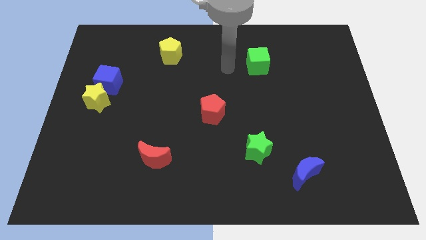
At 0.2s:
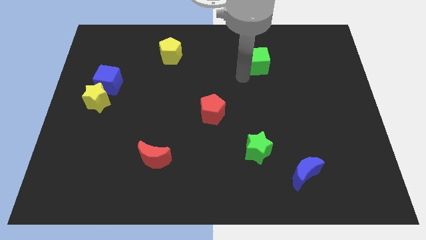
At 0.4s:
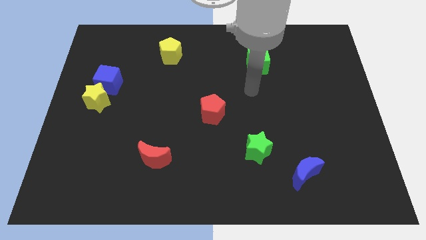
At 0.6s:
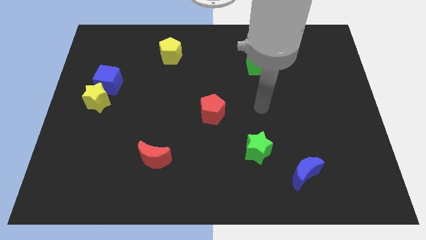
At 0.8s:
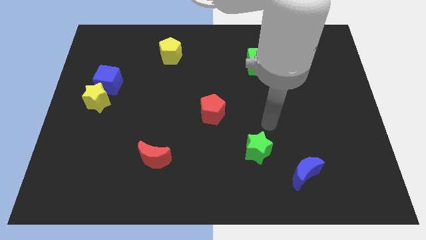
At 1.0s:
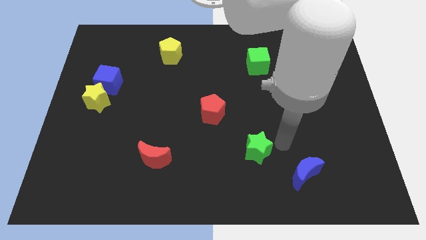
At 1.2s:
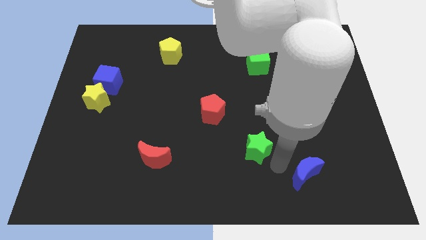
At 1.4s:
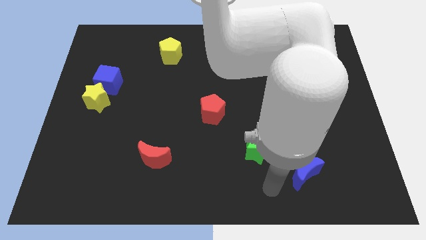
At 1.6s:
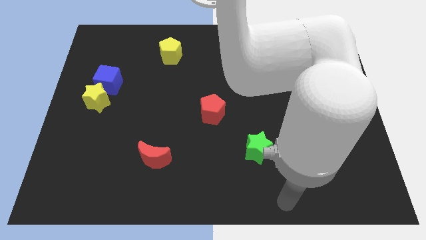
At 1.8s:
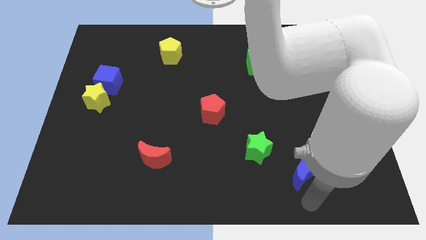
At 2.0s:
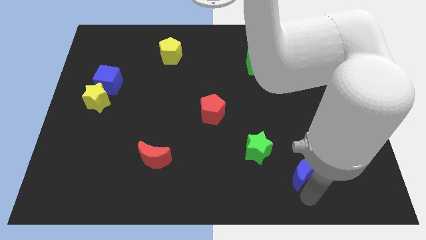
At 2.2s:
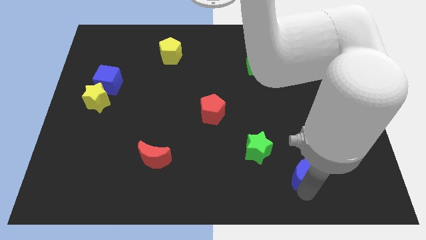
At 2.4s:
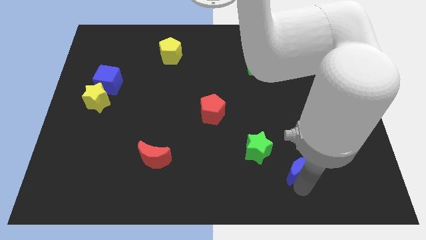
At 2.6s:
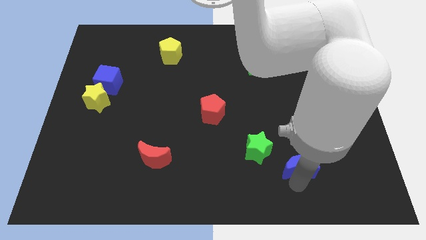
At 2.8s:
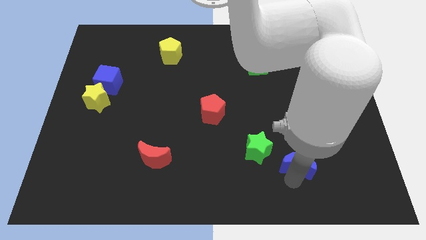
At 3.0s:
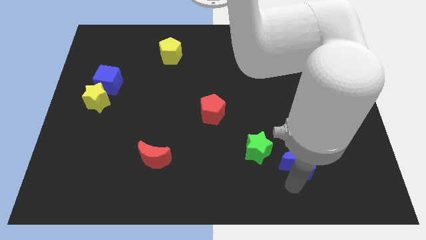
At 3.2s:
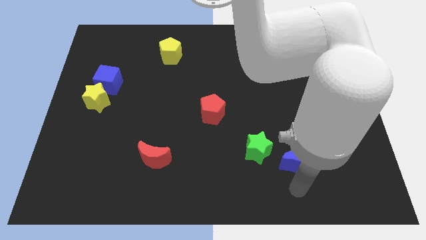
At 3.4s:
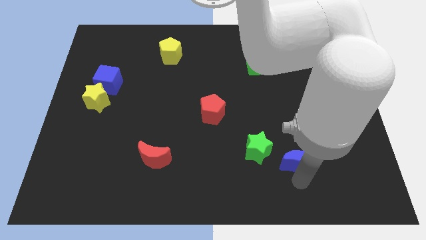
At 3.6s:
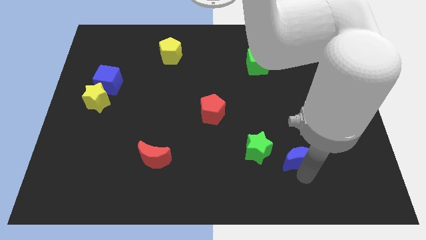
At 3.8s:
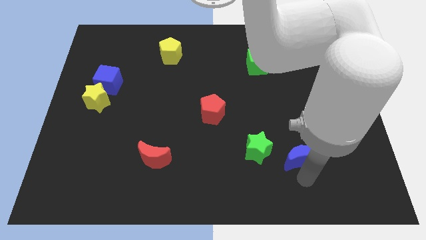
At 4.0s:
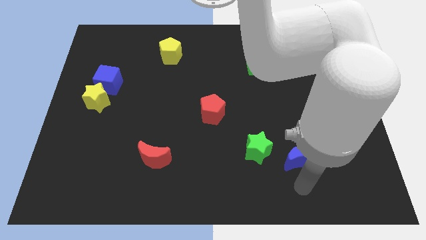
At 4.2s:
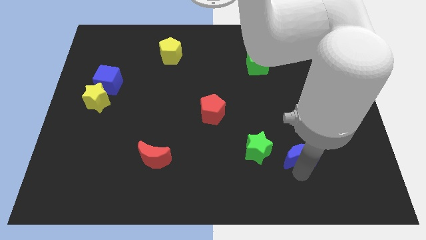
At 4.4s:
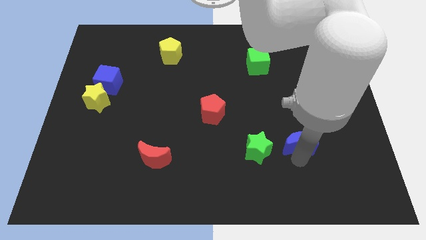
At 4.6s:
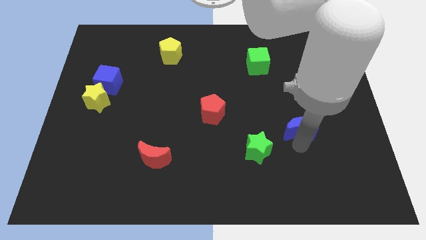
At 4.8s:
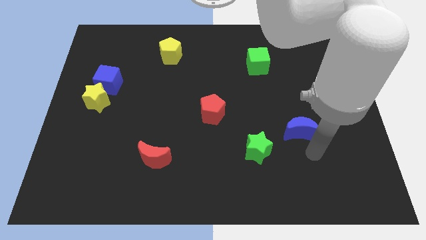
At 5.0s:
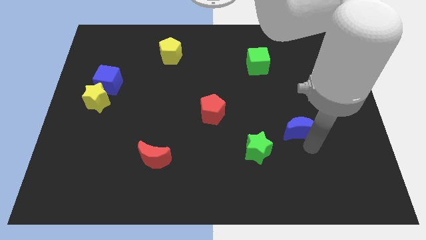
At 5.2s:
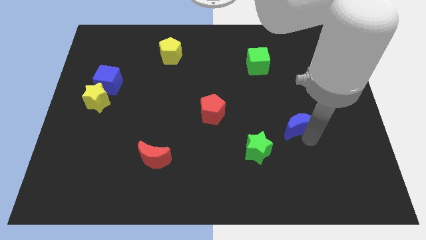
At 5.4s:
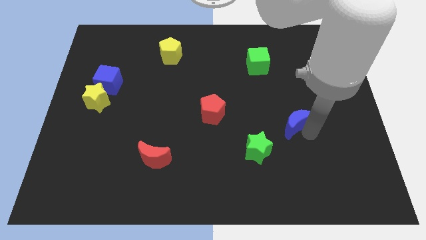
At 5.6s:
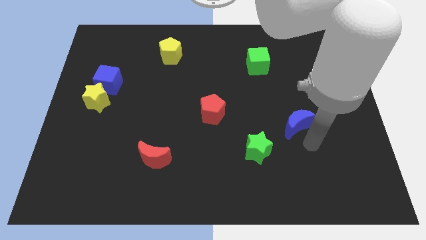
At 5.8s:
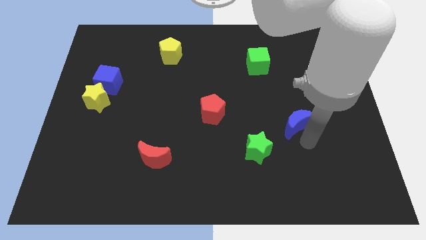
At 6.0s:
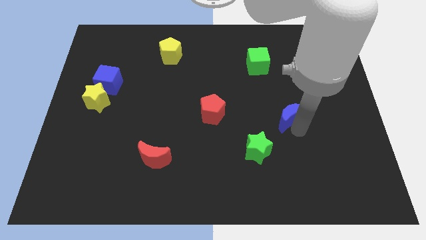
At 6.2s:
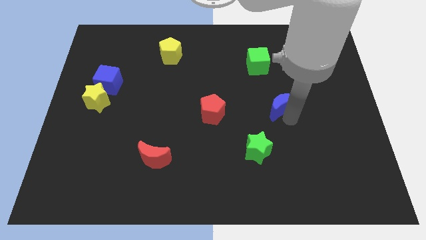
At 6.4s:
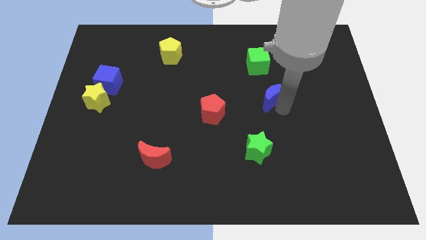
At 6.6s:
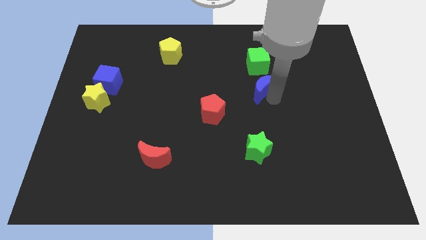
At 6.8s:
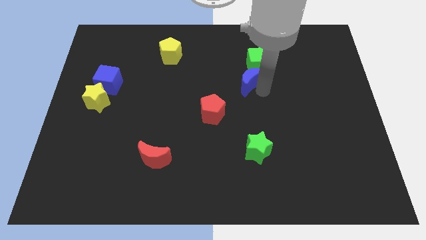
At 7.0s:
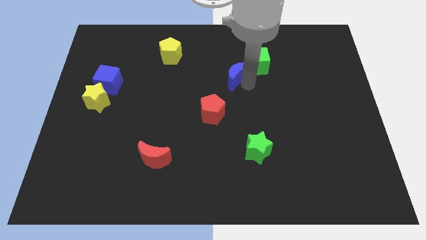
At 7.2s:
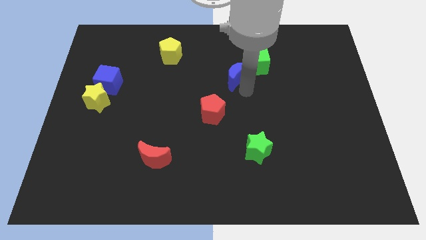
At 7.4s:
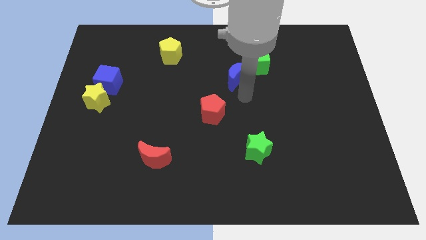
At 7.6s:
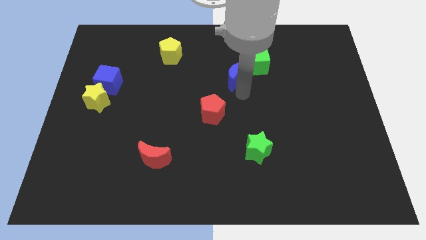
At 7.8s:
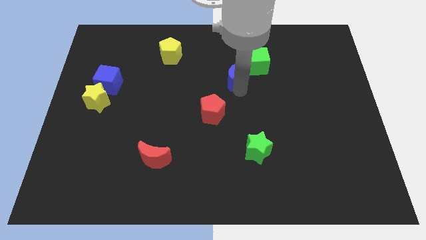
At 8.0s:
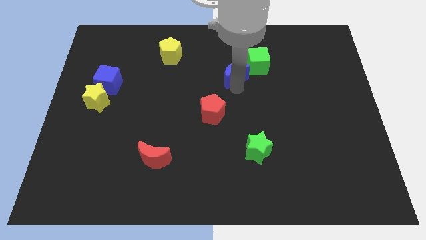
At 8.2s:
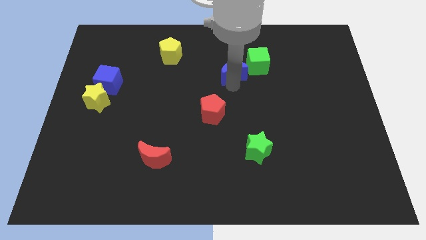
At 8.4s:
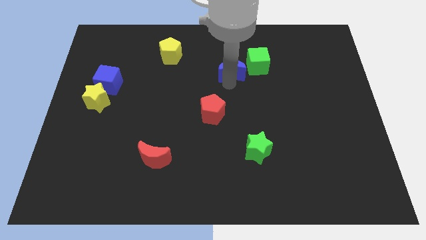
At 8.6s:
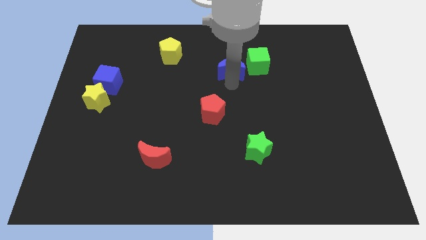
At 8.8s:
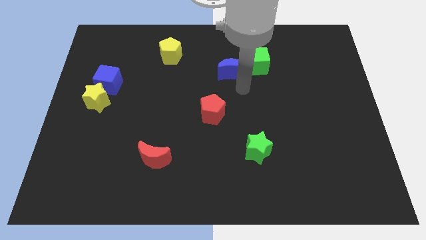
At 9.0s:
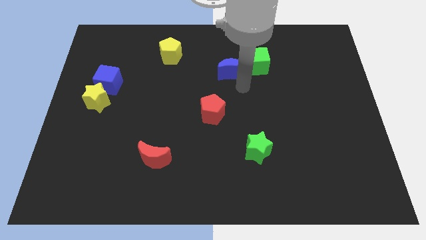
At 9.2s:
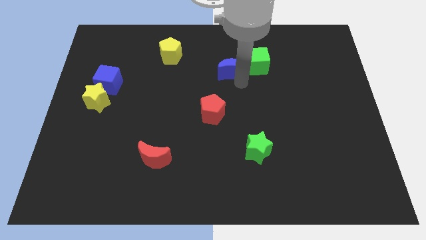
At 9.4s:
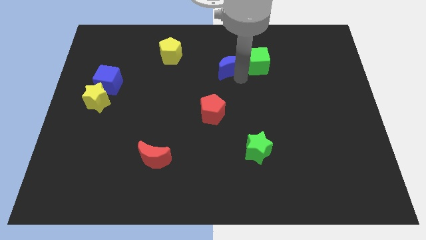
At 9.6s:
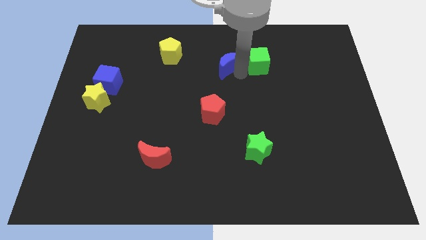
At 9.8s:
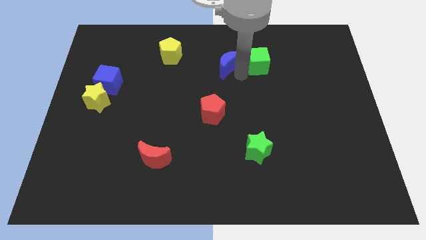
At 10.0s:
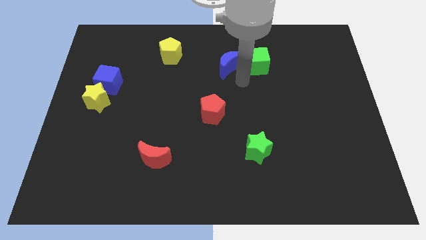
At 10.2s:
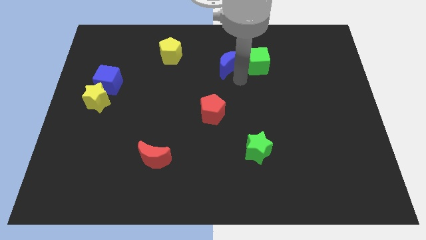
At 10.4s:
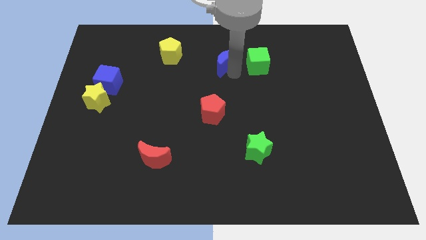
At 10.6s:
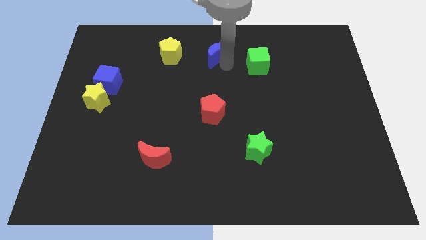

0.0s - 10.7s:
put the blue moon to the top side

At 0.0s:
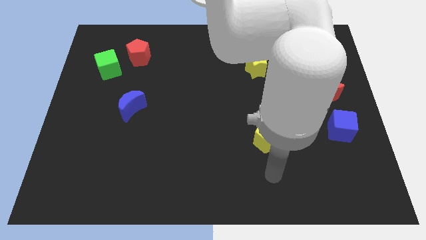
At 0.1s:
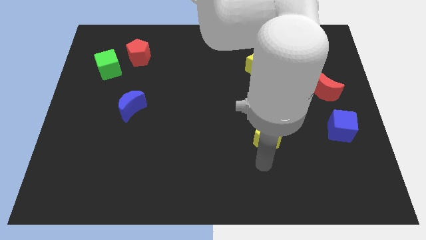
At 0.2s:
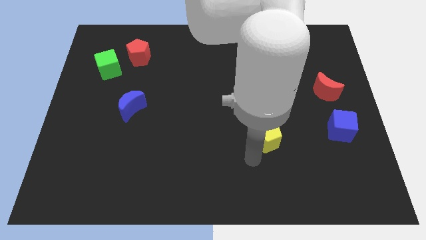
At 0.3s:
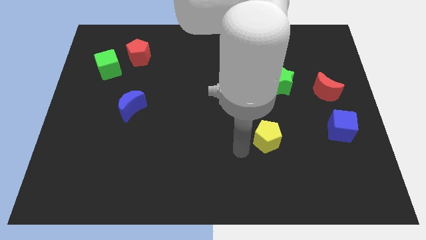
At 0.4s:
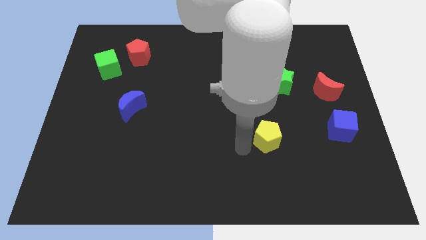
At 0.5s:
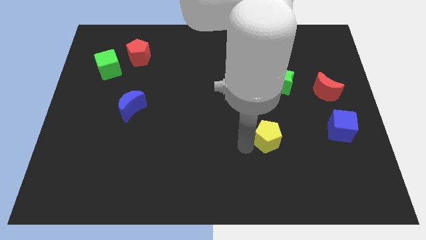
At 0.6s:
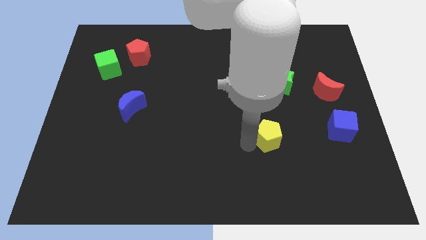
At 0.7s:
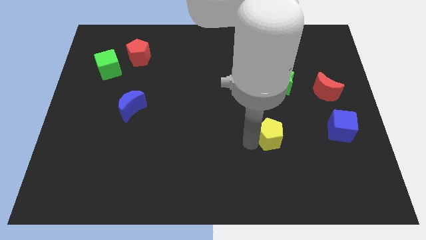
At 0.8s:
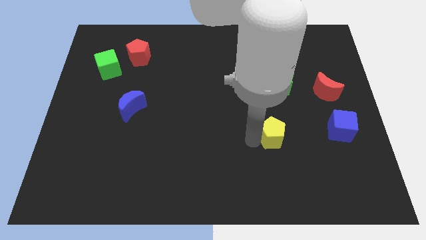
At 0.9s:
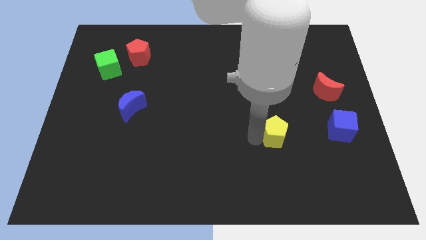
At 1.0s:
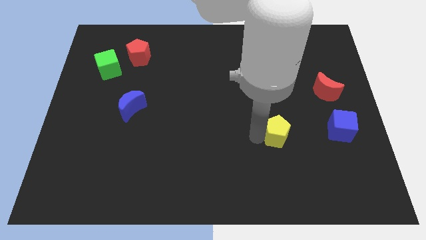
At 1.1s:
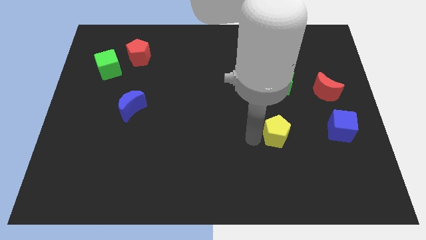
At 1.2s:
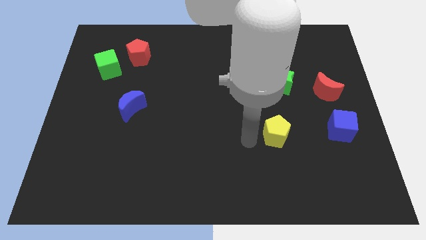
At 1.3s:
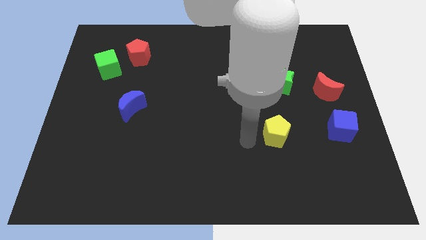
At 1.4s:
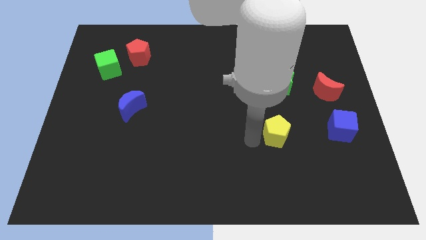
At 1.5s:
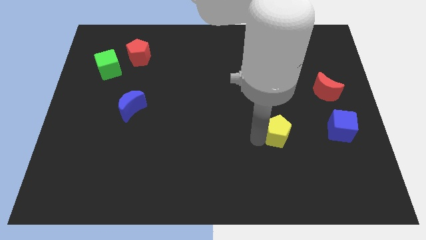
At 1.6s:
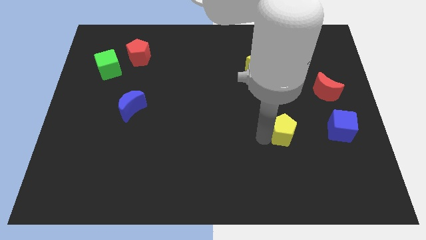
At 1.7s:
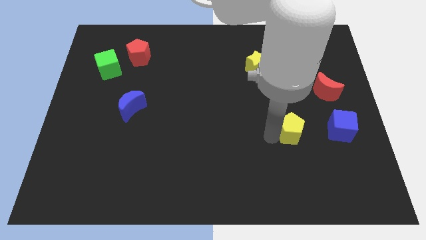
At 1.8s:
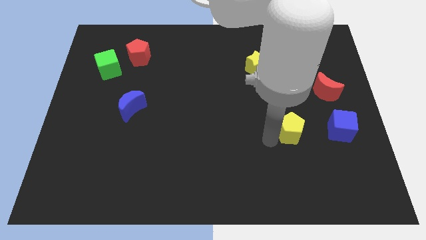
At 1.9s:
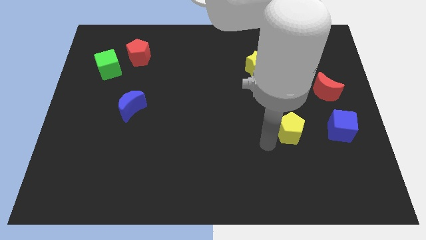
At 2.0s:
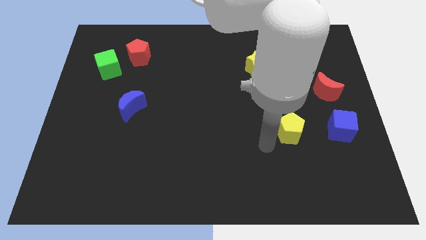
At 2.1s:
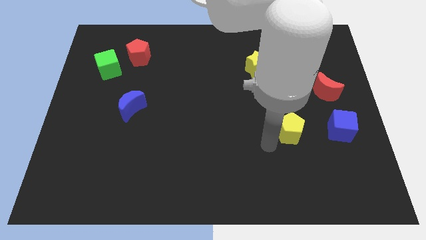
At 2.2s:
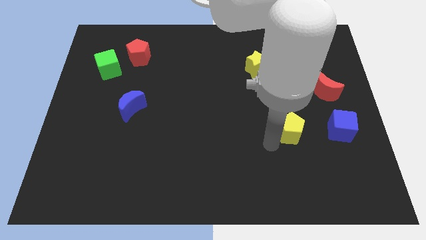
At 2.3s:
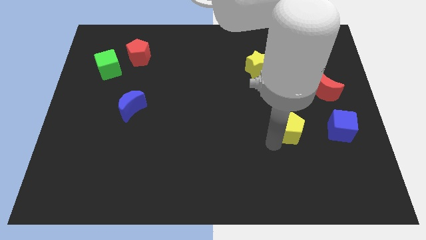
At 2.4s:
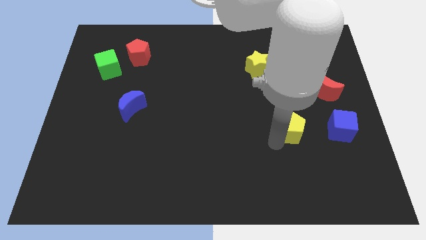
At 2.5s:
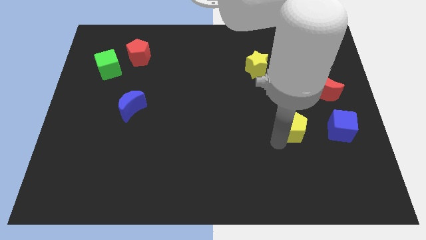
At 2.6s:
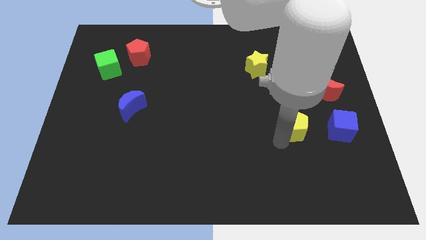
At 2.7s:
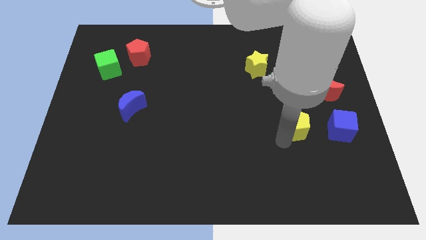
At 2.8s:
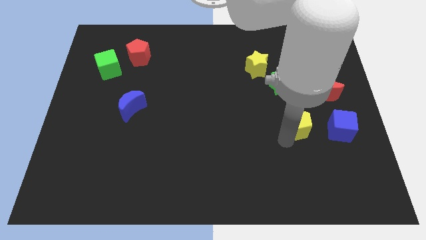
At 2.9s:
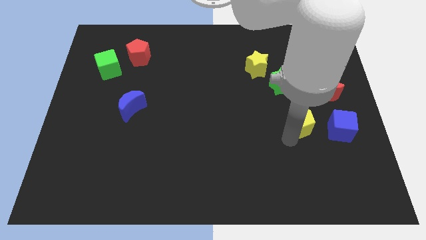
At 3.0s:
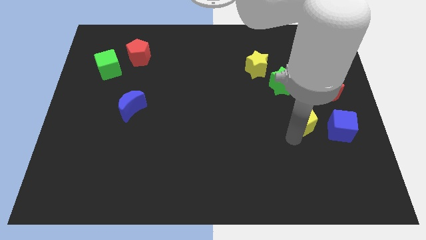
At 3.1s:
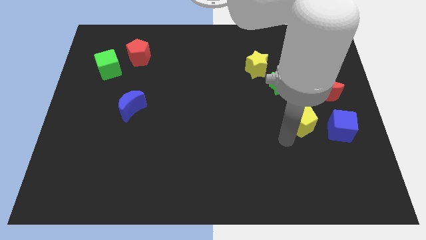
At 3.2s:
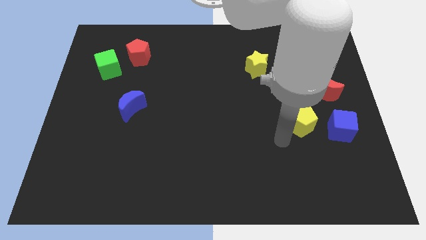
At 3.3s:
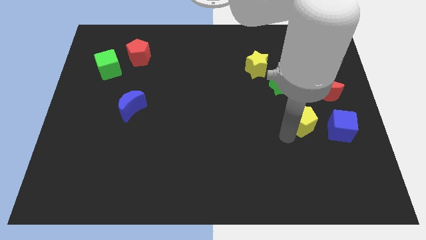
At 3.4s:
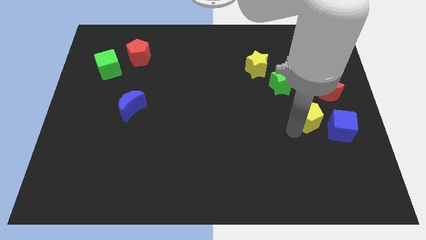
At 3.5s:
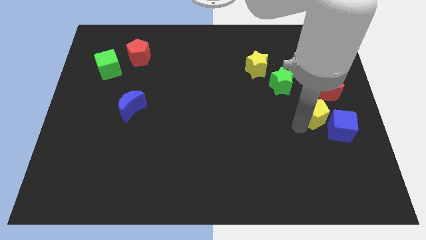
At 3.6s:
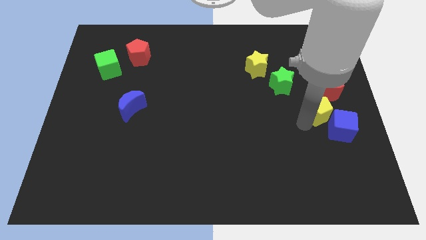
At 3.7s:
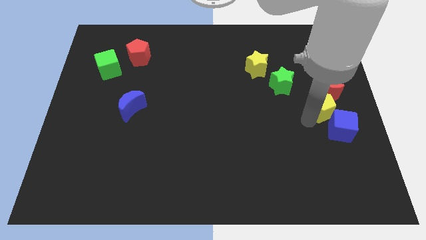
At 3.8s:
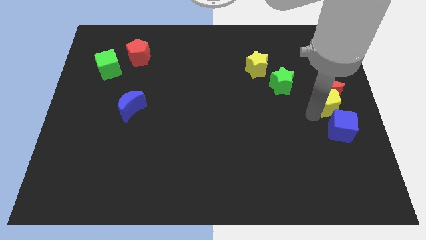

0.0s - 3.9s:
push the yellow pentagon to the right side of the board
